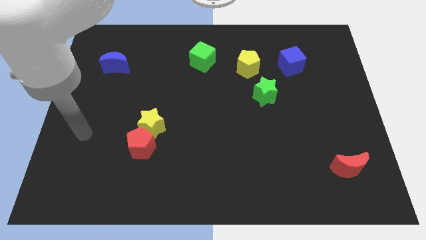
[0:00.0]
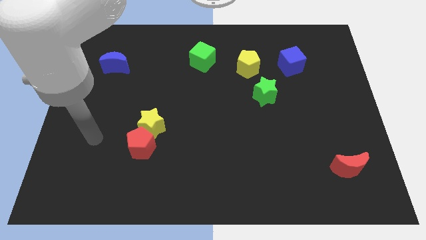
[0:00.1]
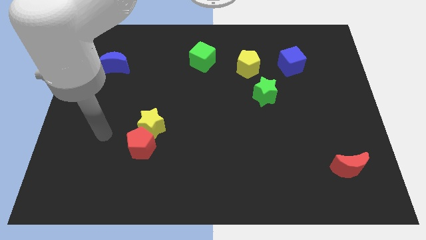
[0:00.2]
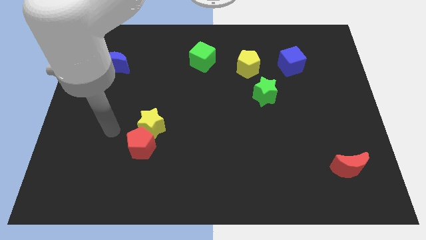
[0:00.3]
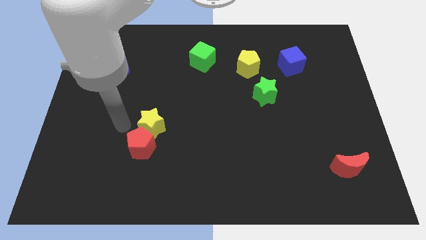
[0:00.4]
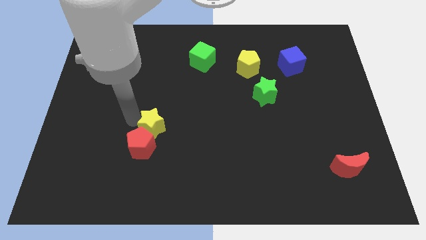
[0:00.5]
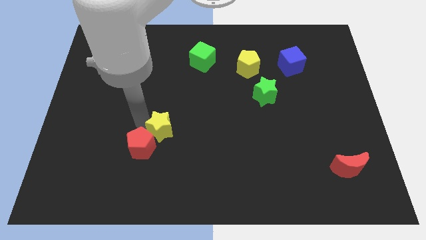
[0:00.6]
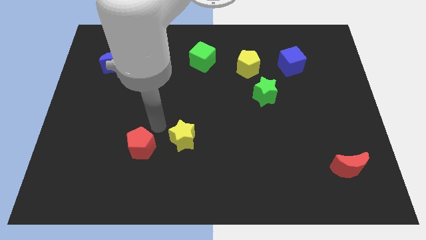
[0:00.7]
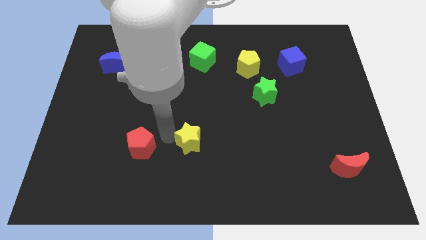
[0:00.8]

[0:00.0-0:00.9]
pull the red pentagon apart from the yellow star

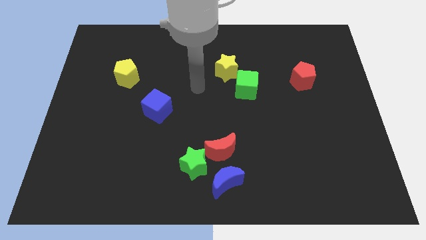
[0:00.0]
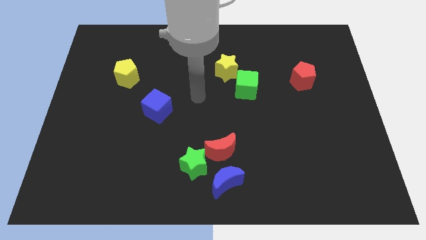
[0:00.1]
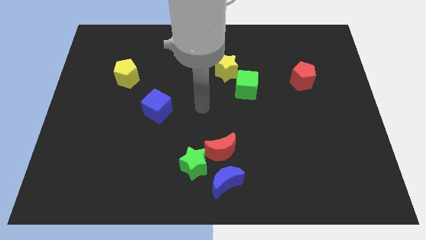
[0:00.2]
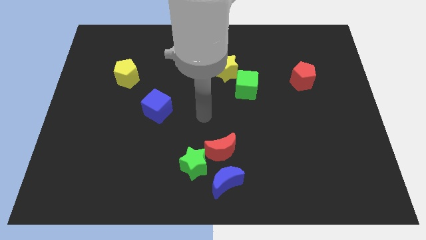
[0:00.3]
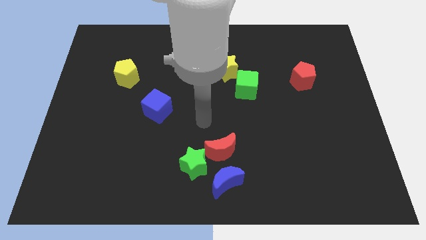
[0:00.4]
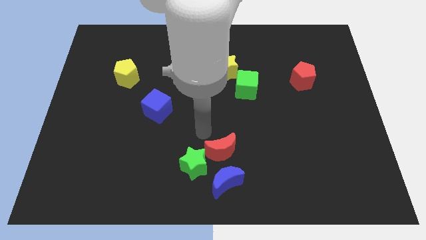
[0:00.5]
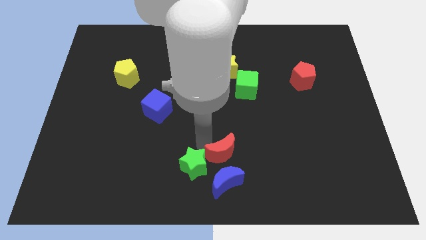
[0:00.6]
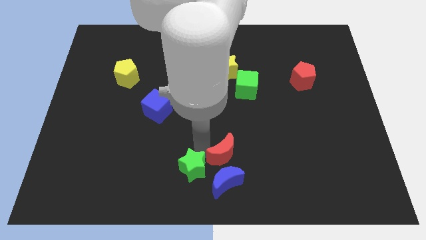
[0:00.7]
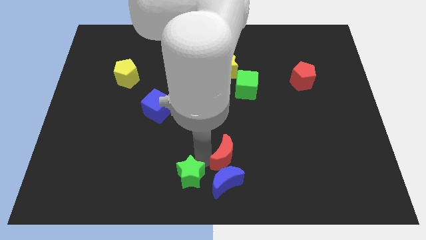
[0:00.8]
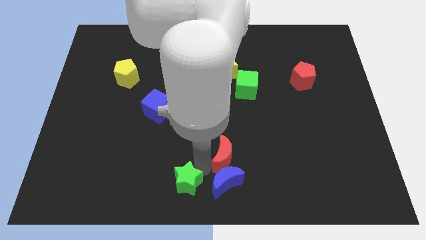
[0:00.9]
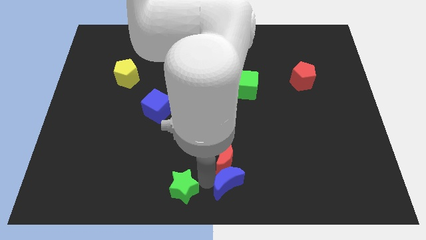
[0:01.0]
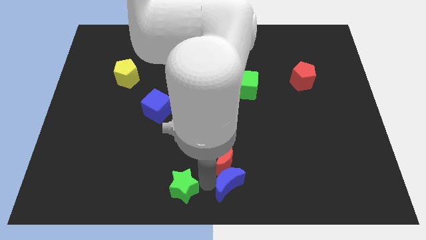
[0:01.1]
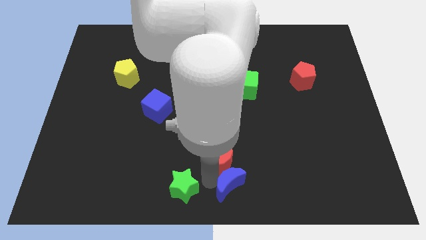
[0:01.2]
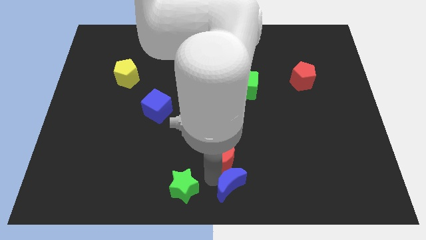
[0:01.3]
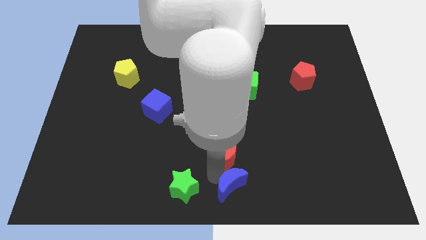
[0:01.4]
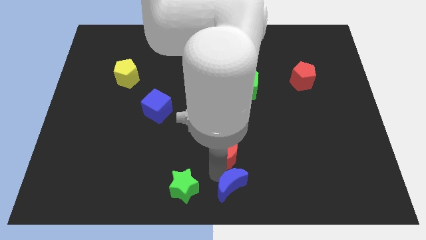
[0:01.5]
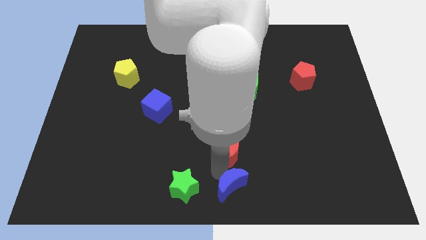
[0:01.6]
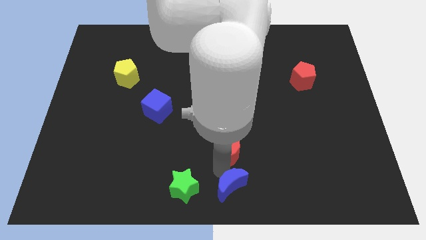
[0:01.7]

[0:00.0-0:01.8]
move the red moon away from the green star and blue moon

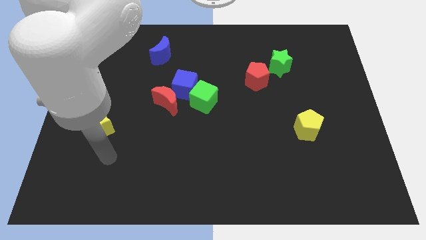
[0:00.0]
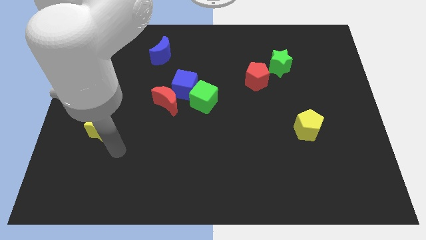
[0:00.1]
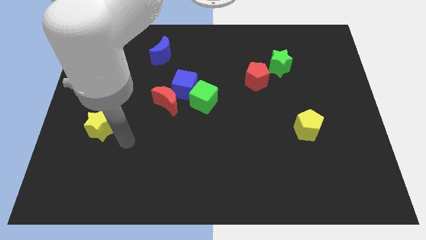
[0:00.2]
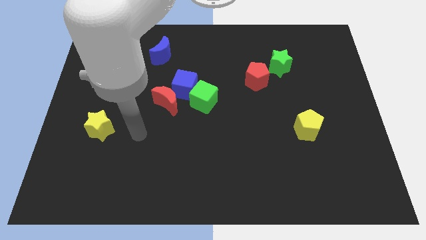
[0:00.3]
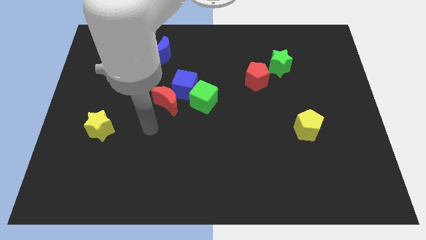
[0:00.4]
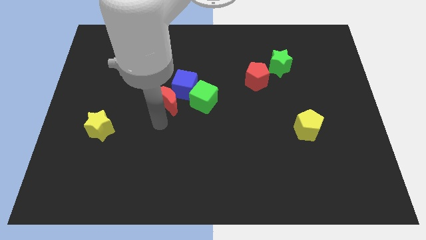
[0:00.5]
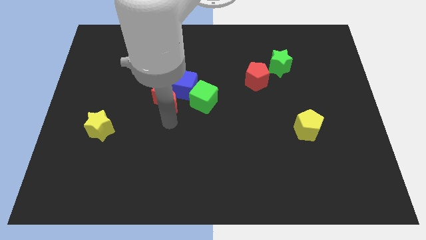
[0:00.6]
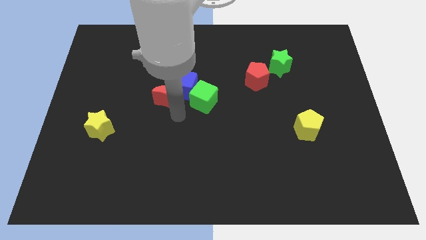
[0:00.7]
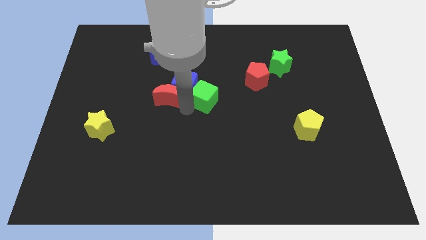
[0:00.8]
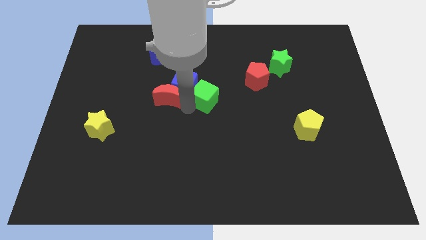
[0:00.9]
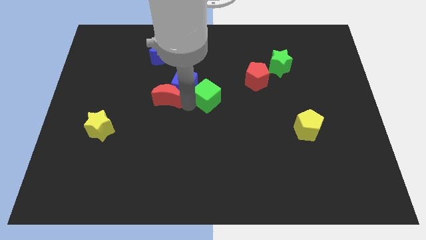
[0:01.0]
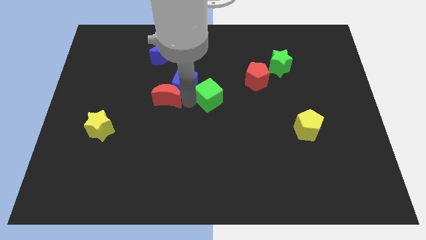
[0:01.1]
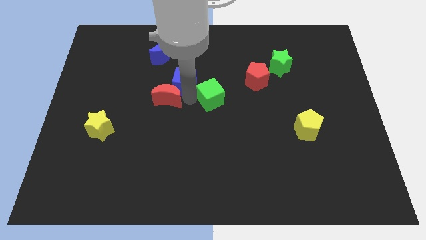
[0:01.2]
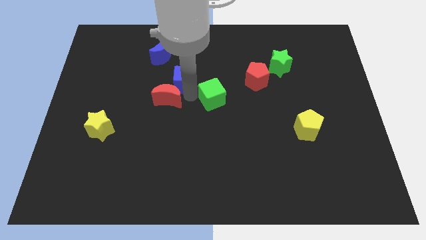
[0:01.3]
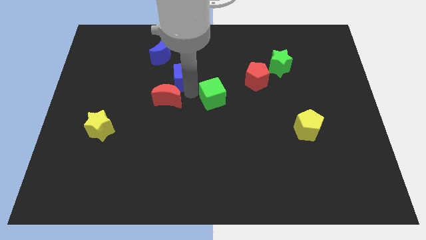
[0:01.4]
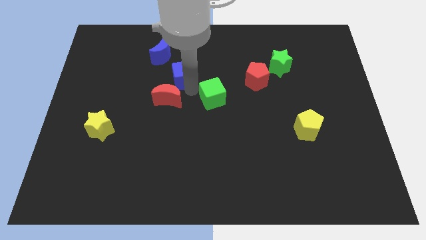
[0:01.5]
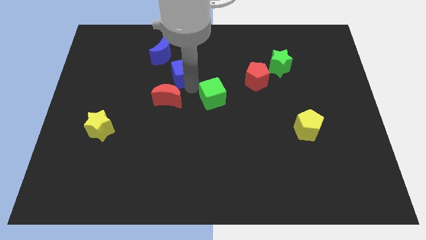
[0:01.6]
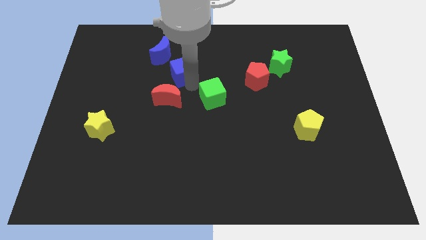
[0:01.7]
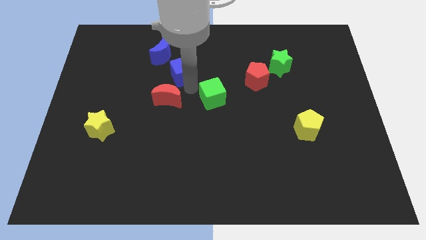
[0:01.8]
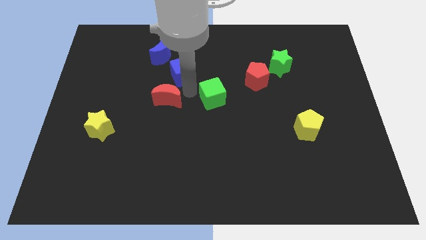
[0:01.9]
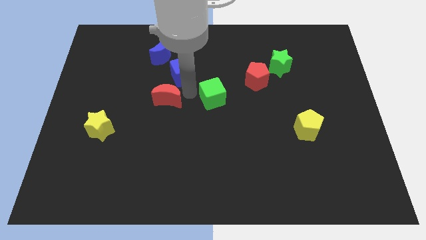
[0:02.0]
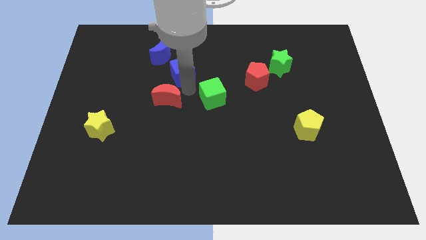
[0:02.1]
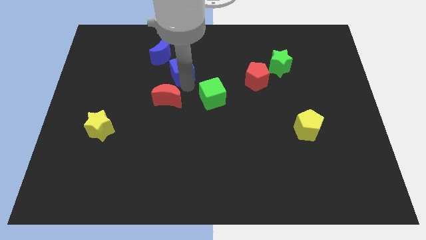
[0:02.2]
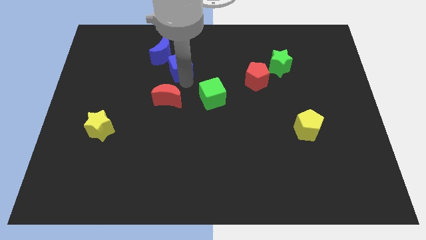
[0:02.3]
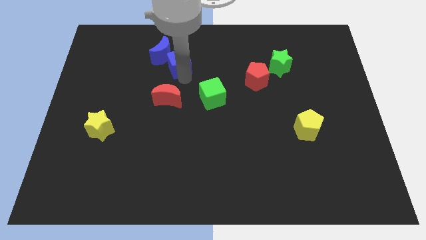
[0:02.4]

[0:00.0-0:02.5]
move the blue cube away from the green cube and red moon

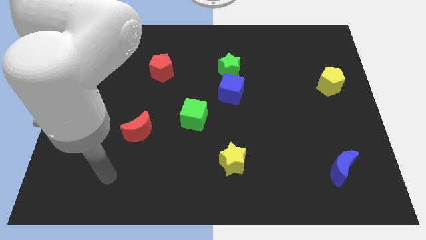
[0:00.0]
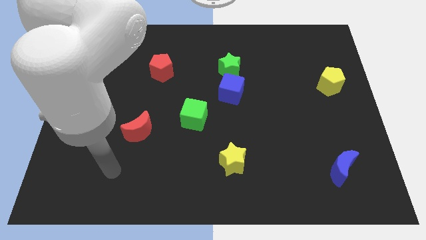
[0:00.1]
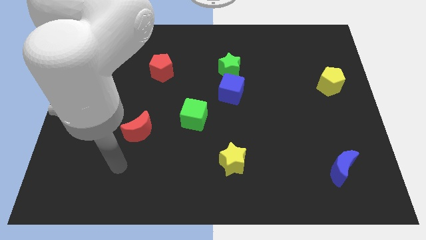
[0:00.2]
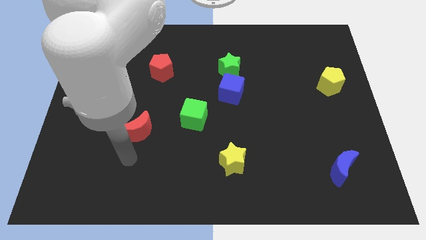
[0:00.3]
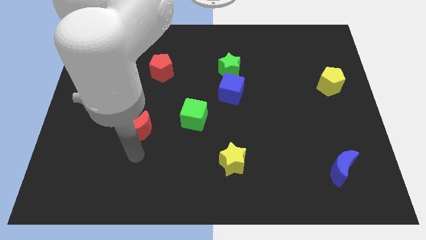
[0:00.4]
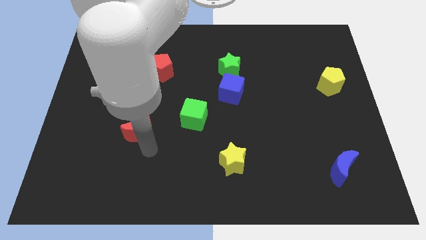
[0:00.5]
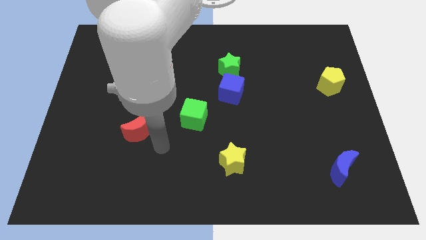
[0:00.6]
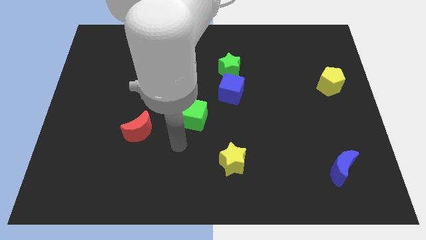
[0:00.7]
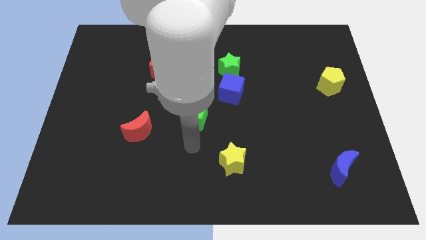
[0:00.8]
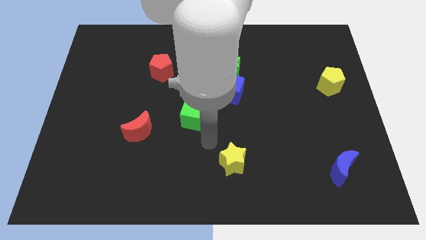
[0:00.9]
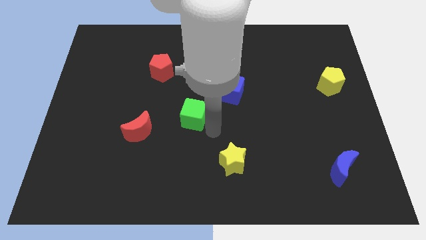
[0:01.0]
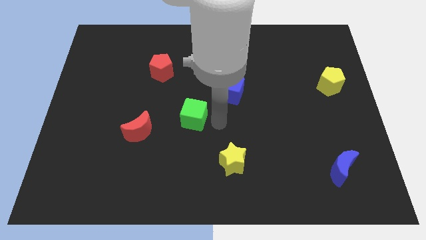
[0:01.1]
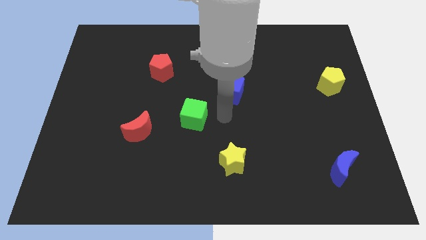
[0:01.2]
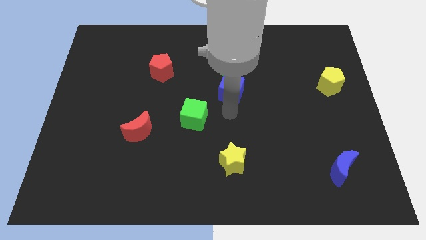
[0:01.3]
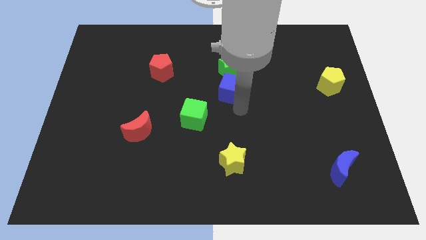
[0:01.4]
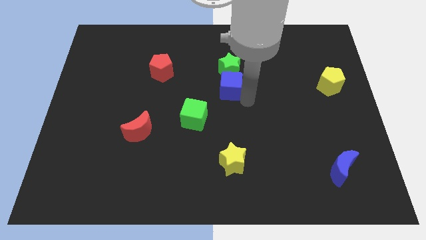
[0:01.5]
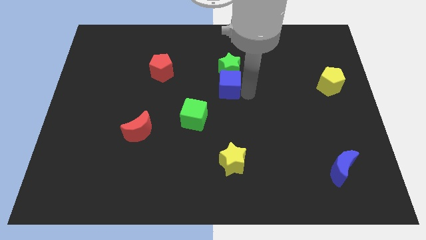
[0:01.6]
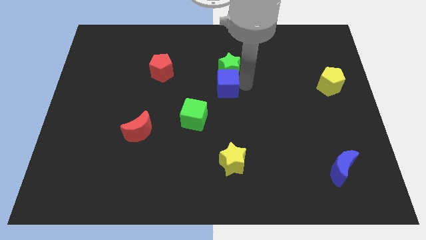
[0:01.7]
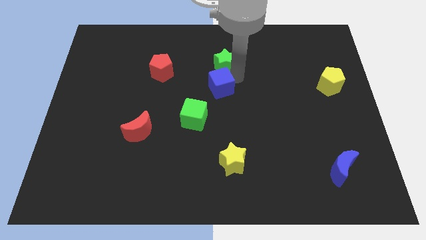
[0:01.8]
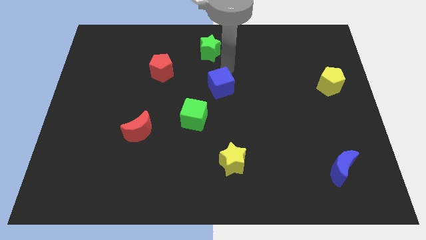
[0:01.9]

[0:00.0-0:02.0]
separate the blue cube from the green star

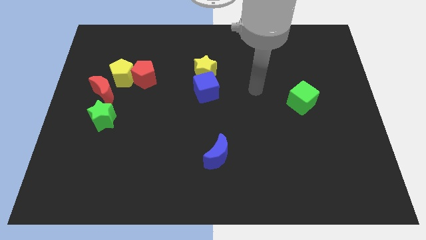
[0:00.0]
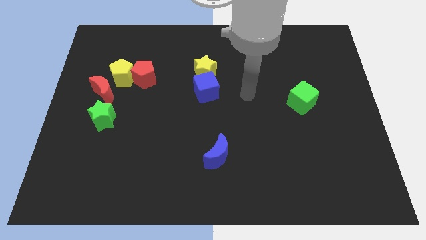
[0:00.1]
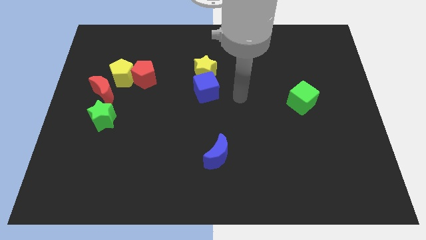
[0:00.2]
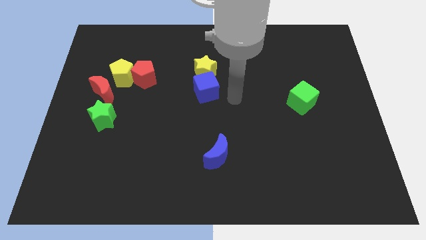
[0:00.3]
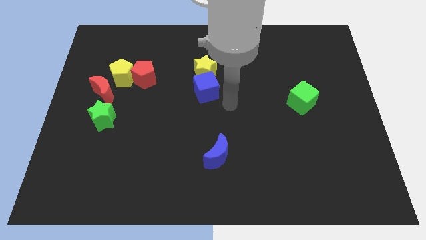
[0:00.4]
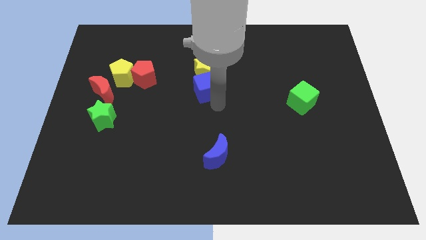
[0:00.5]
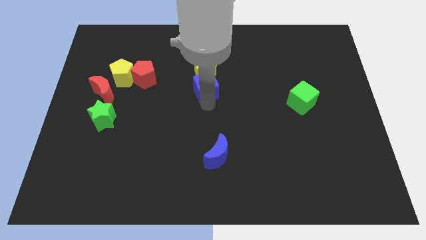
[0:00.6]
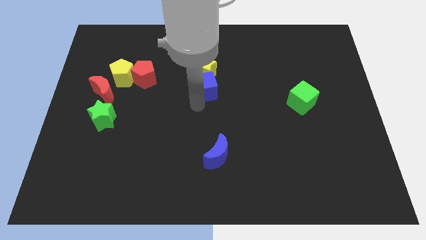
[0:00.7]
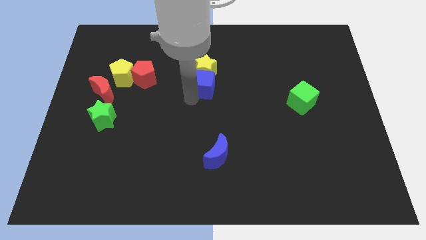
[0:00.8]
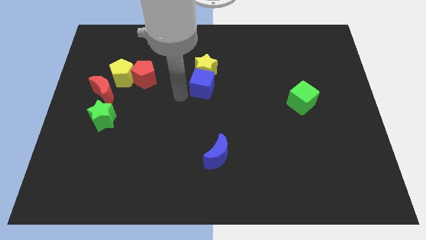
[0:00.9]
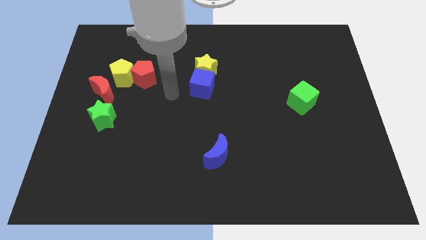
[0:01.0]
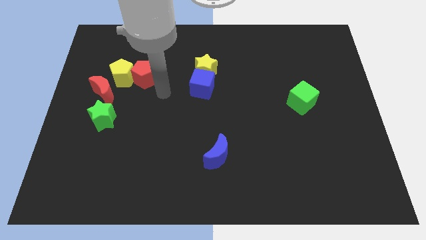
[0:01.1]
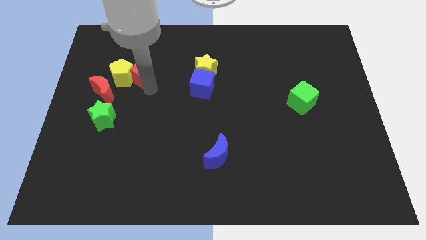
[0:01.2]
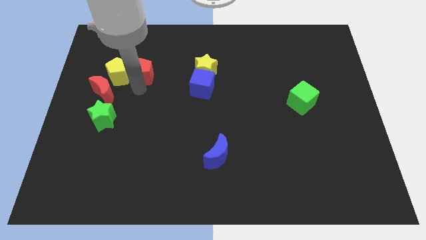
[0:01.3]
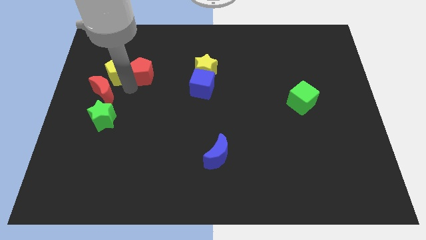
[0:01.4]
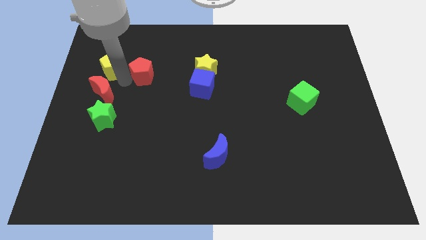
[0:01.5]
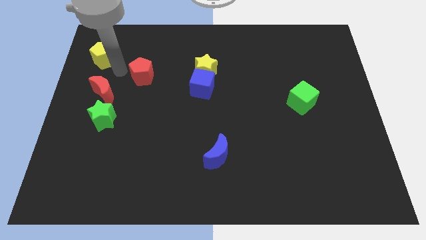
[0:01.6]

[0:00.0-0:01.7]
pull the red pentagon apart from the yellow pentagon

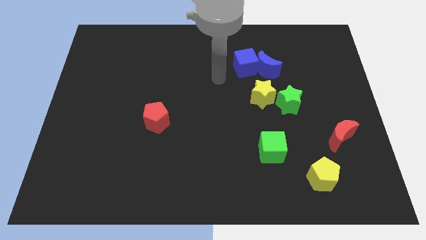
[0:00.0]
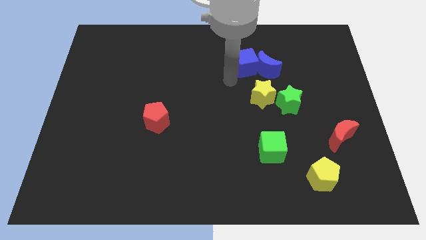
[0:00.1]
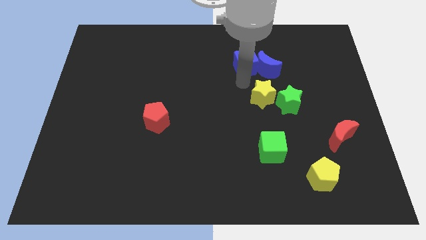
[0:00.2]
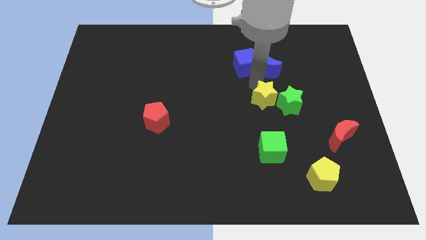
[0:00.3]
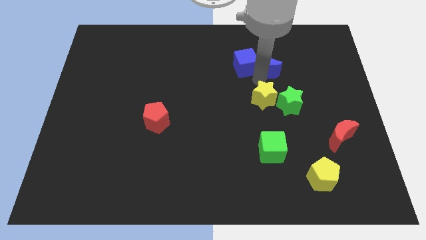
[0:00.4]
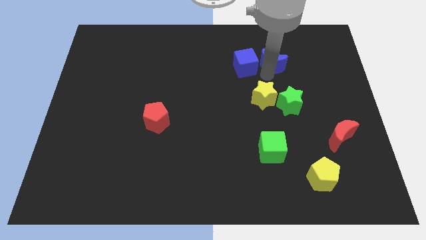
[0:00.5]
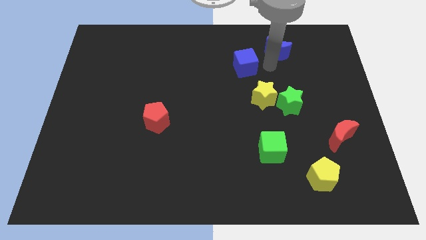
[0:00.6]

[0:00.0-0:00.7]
move the blue cube away from the blue moon
